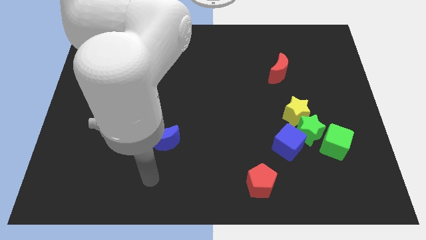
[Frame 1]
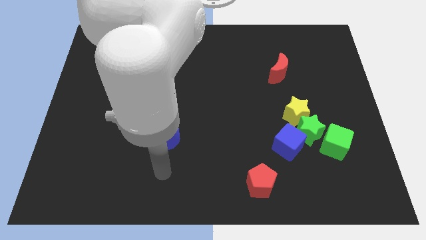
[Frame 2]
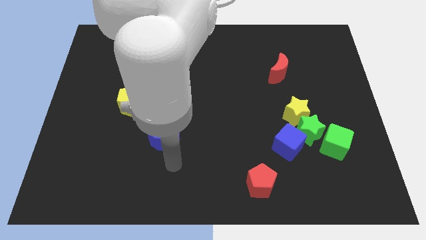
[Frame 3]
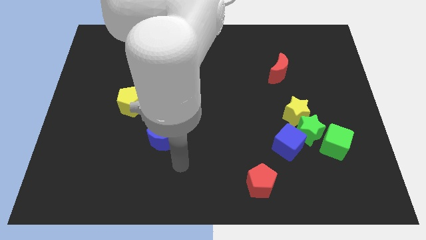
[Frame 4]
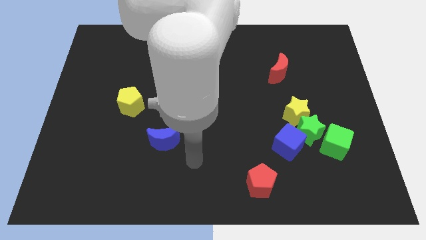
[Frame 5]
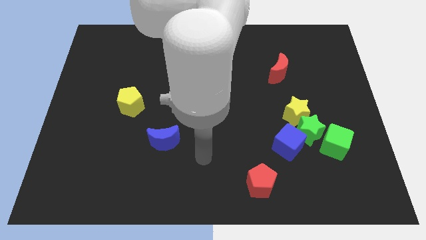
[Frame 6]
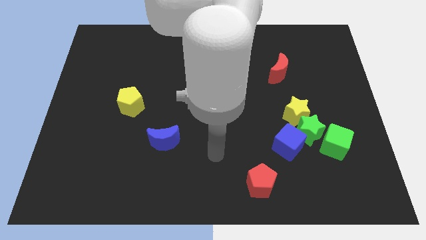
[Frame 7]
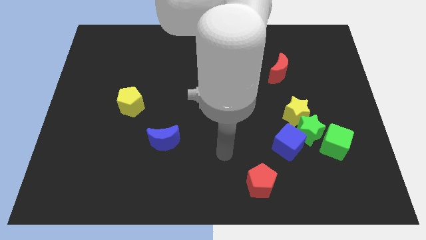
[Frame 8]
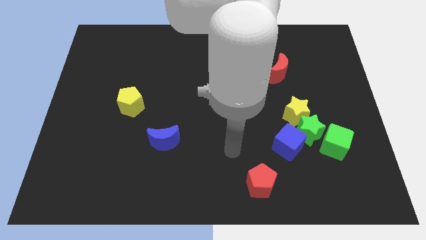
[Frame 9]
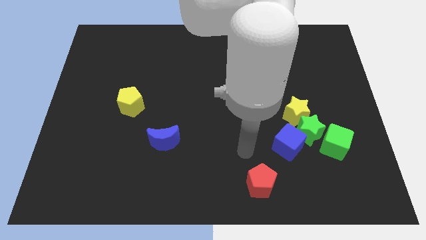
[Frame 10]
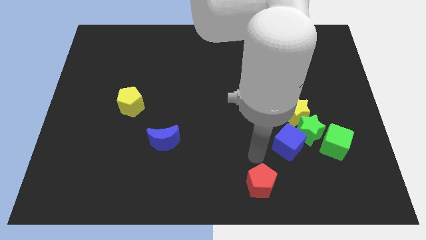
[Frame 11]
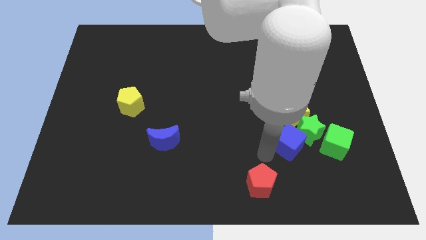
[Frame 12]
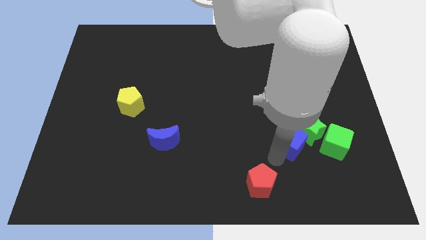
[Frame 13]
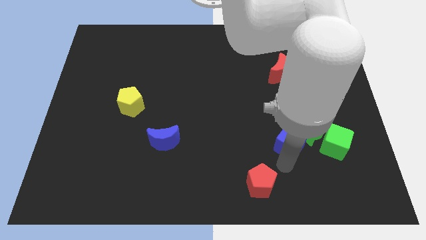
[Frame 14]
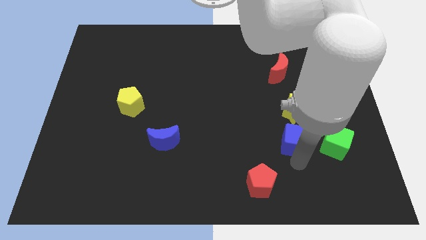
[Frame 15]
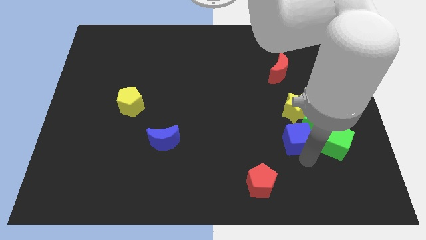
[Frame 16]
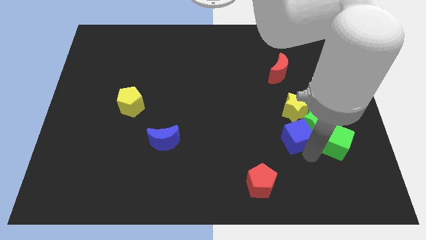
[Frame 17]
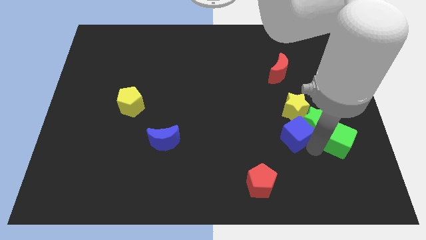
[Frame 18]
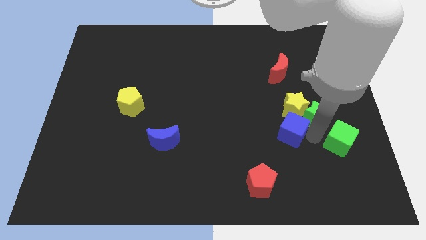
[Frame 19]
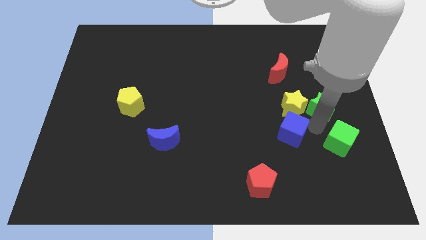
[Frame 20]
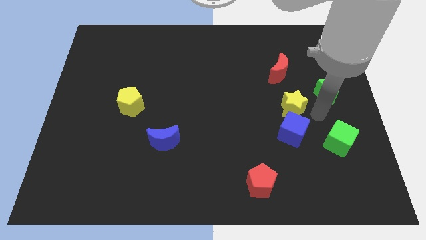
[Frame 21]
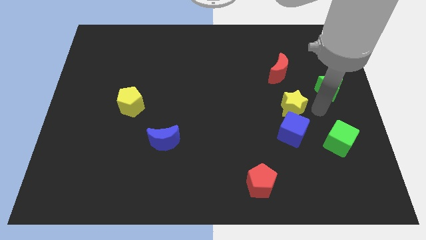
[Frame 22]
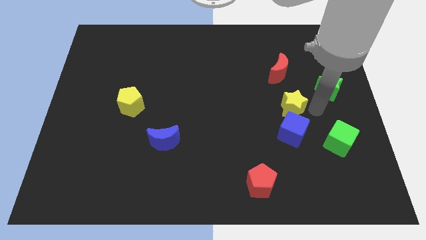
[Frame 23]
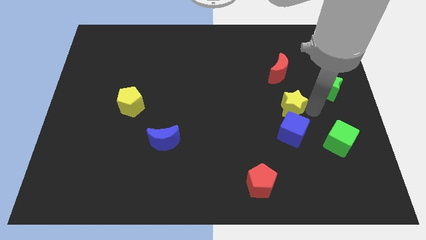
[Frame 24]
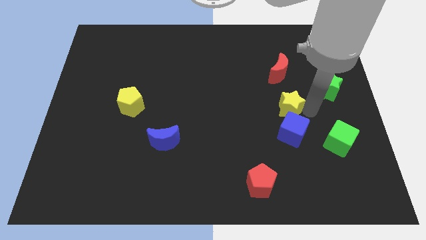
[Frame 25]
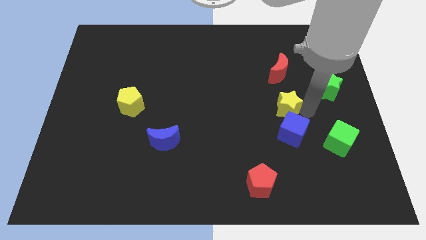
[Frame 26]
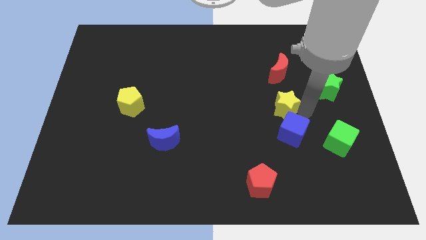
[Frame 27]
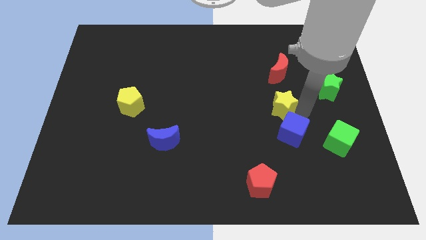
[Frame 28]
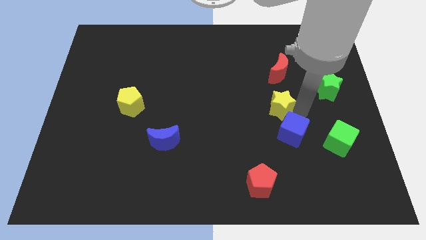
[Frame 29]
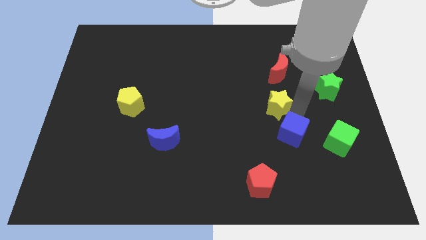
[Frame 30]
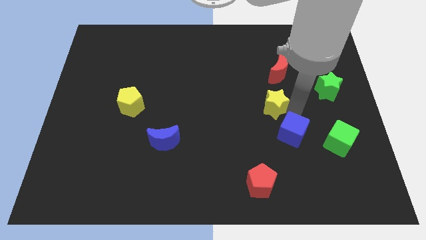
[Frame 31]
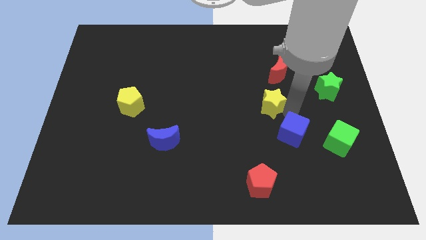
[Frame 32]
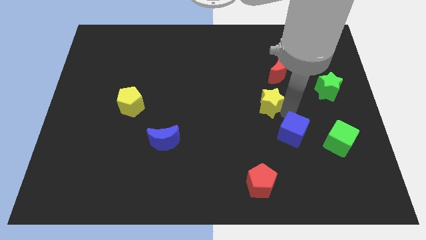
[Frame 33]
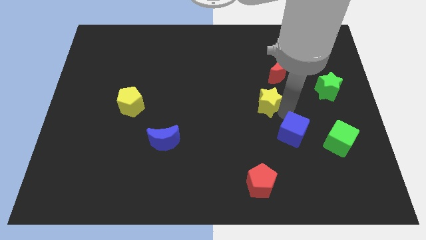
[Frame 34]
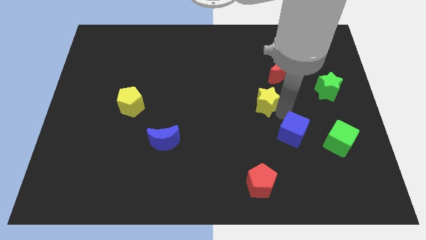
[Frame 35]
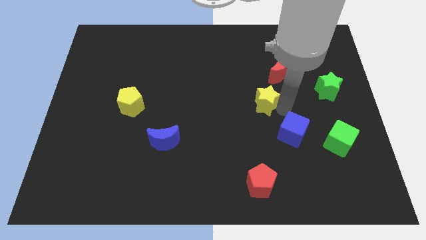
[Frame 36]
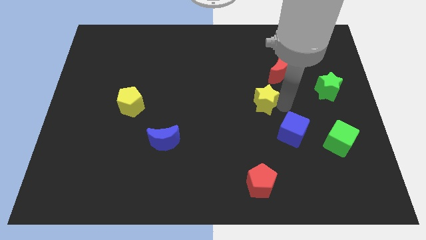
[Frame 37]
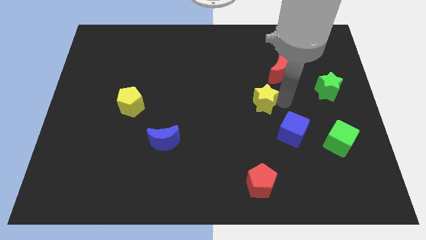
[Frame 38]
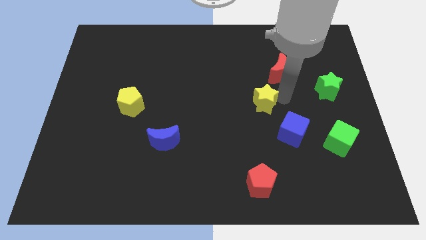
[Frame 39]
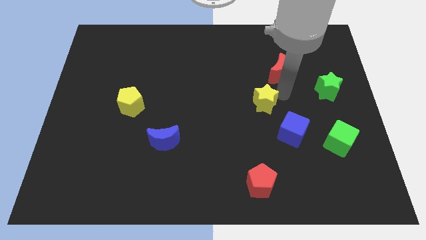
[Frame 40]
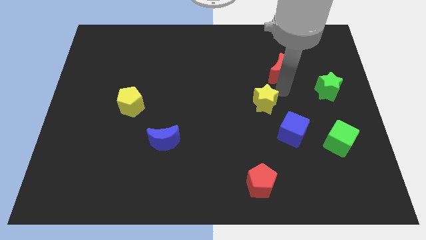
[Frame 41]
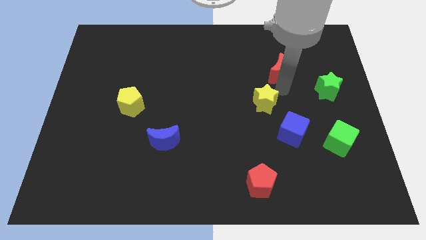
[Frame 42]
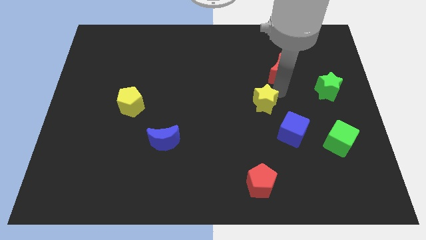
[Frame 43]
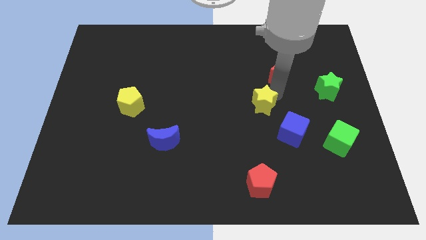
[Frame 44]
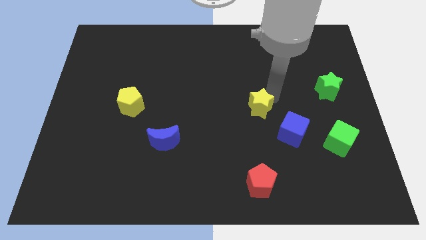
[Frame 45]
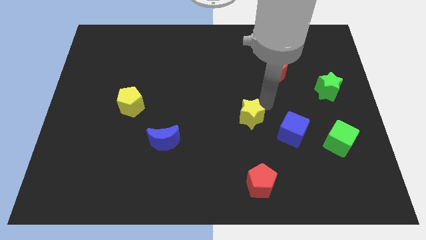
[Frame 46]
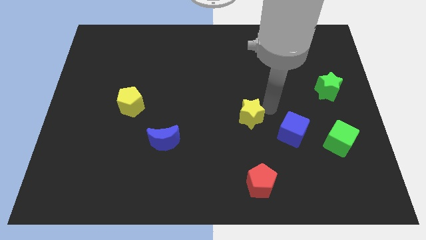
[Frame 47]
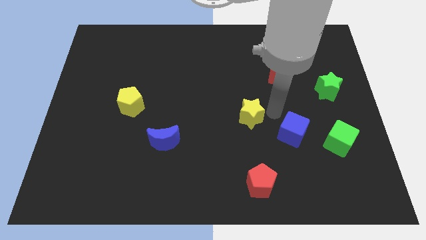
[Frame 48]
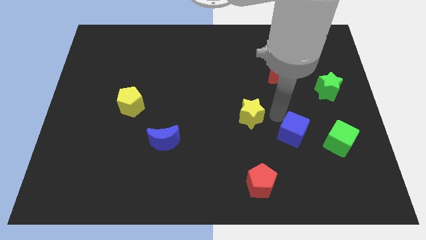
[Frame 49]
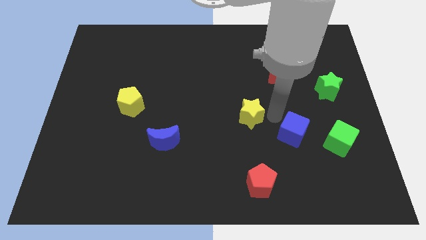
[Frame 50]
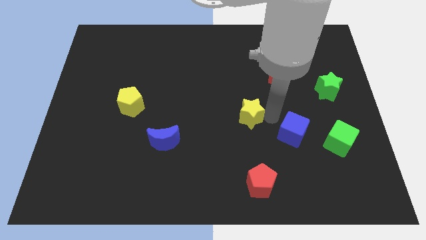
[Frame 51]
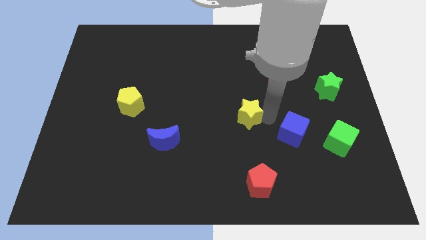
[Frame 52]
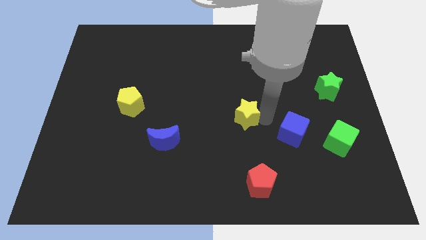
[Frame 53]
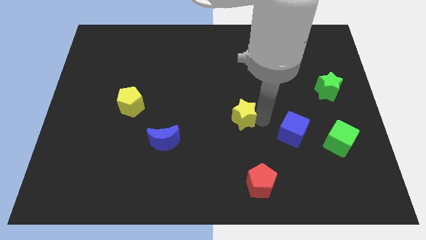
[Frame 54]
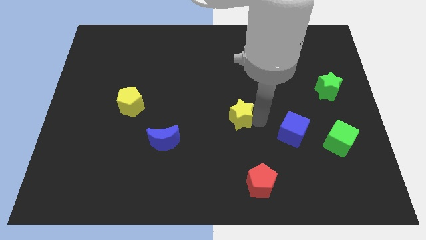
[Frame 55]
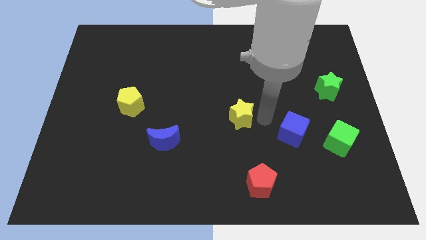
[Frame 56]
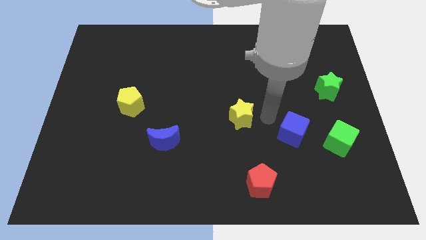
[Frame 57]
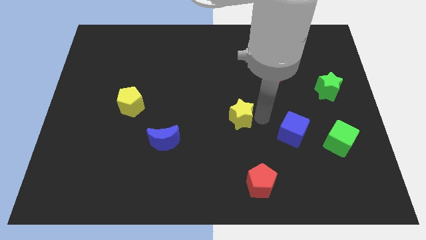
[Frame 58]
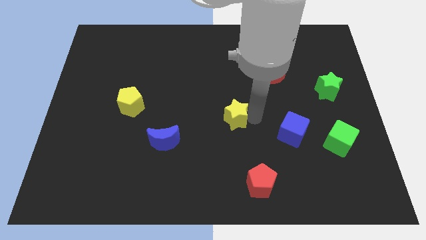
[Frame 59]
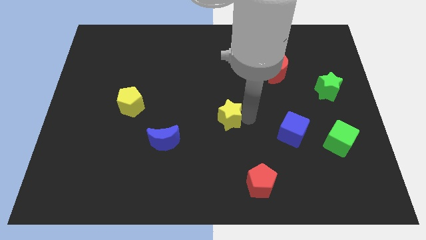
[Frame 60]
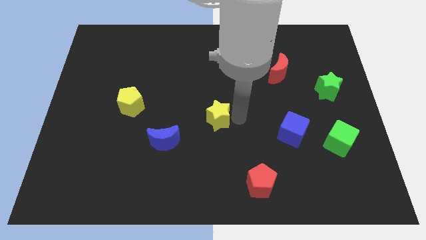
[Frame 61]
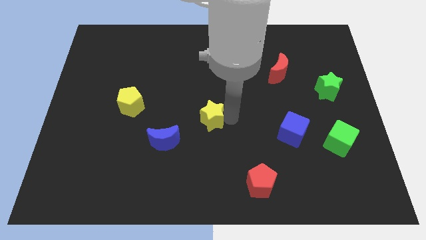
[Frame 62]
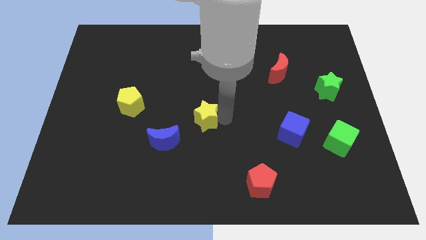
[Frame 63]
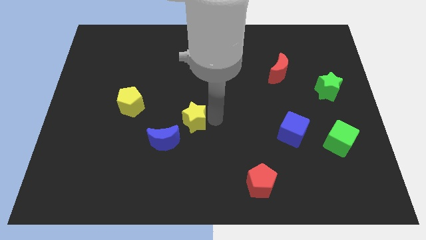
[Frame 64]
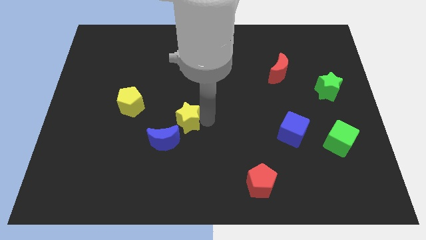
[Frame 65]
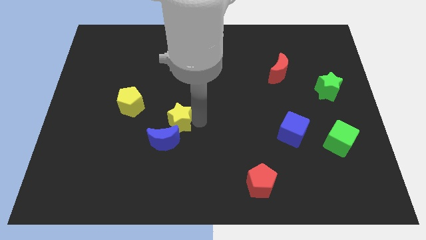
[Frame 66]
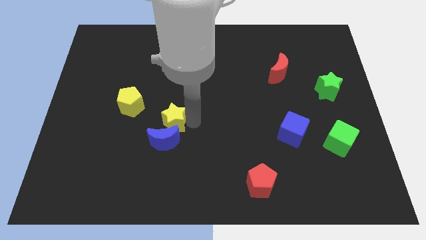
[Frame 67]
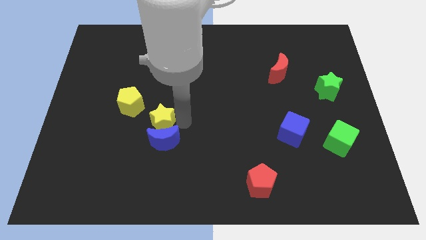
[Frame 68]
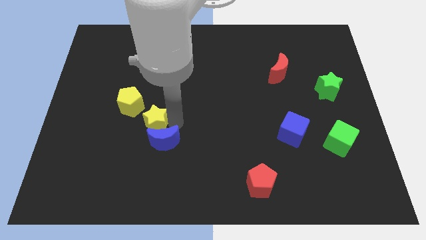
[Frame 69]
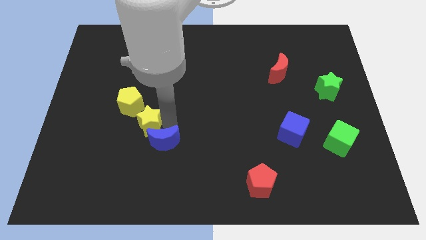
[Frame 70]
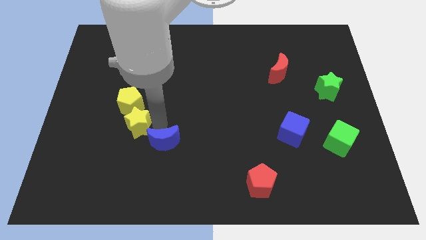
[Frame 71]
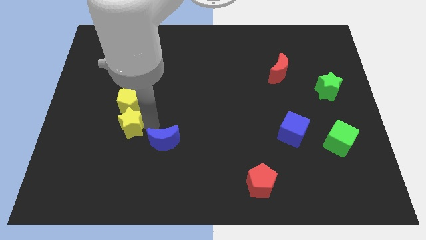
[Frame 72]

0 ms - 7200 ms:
push the yellow star to the bottom left side of the yellow pentagon
